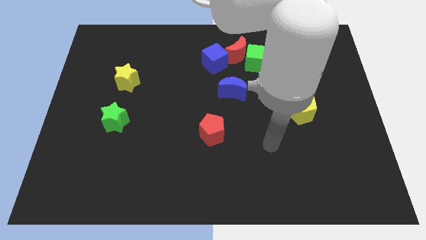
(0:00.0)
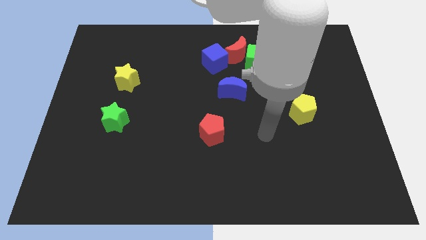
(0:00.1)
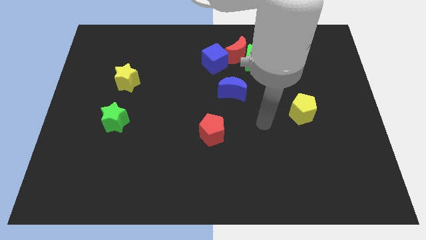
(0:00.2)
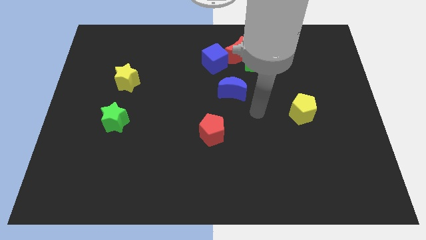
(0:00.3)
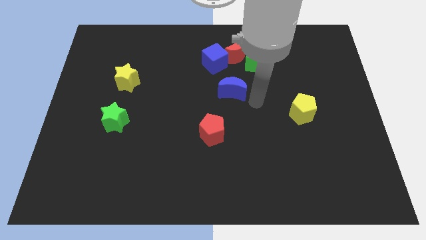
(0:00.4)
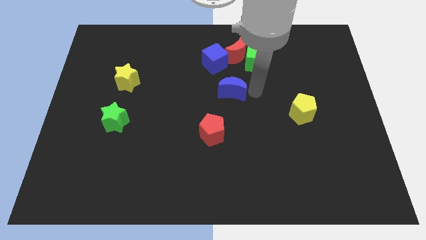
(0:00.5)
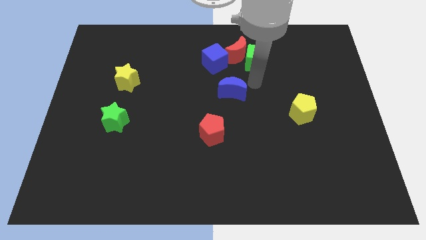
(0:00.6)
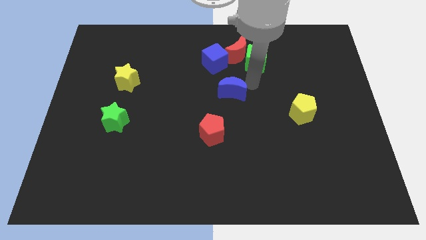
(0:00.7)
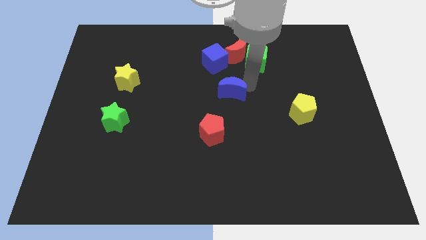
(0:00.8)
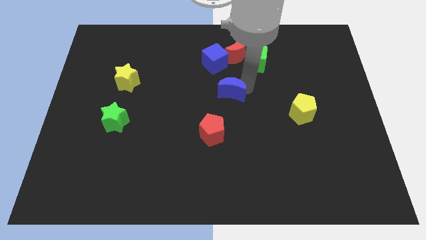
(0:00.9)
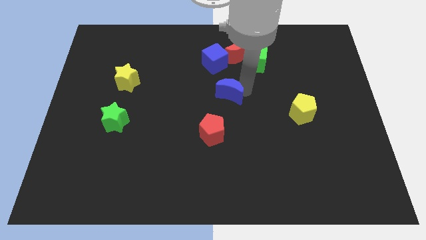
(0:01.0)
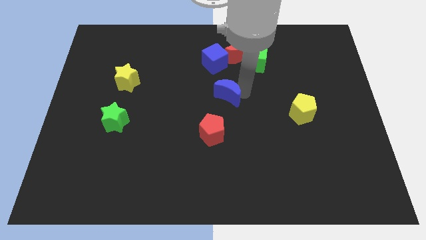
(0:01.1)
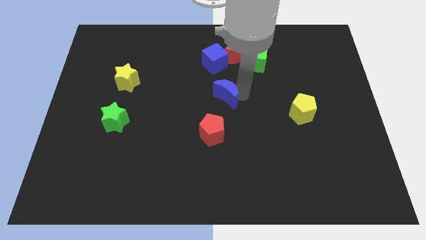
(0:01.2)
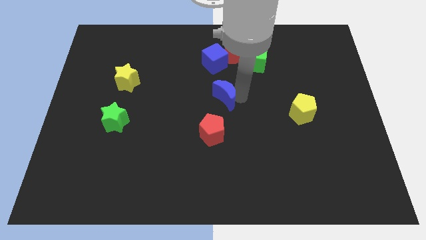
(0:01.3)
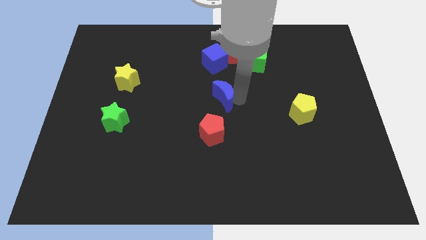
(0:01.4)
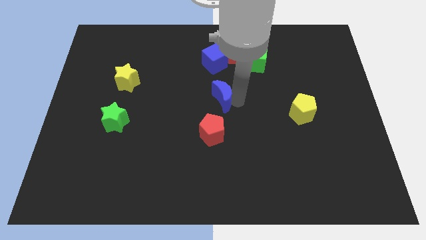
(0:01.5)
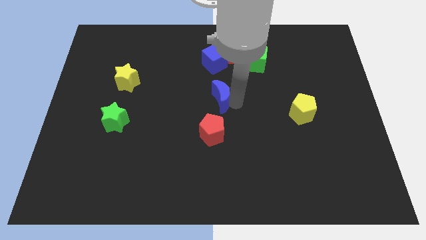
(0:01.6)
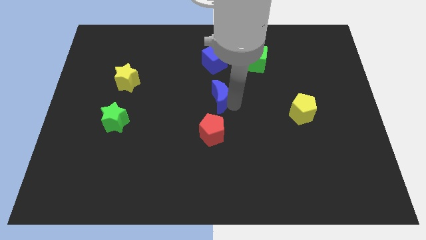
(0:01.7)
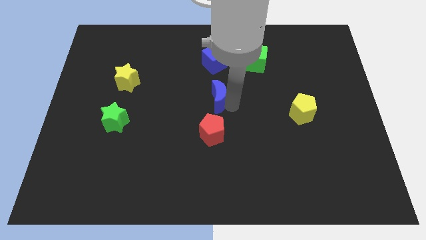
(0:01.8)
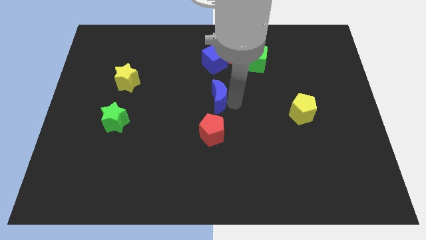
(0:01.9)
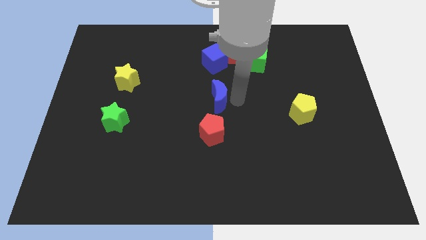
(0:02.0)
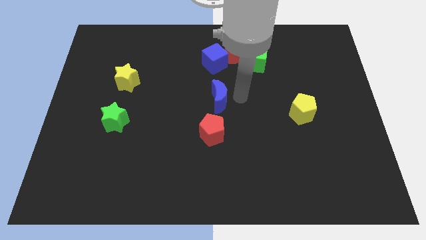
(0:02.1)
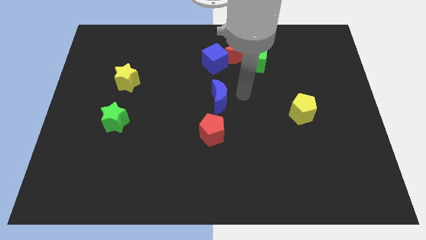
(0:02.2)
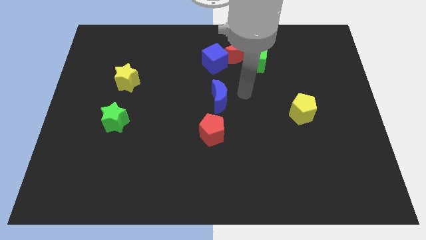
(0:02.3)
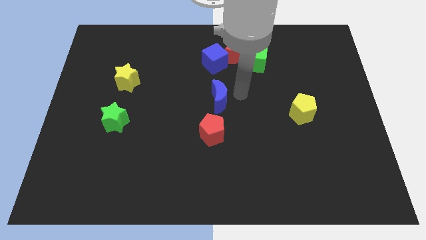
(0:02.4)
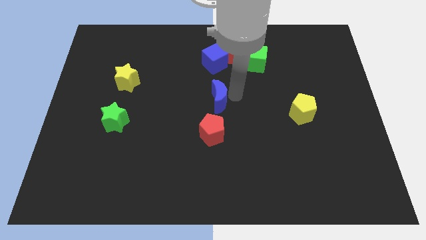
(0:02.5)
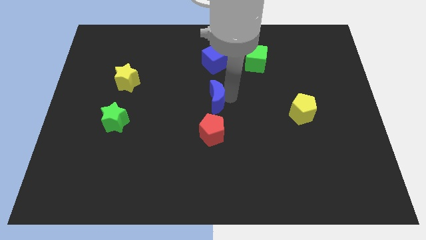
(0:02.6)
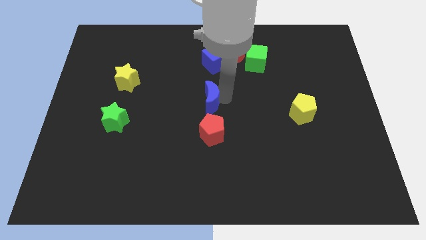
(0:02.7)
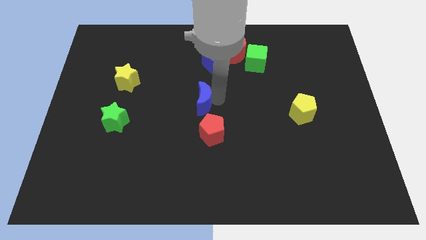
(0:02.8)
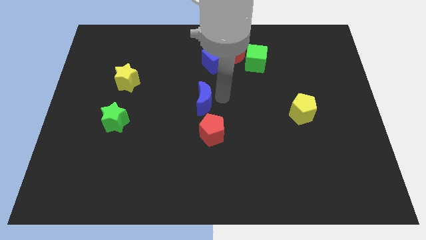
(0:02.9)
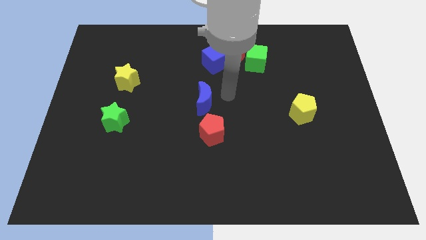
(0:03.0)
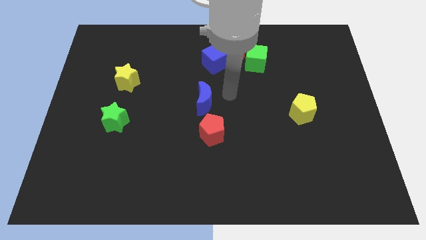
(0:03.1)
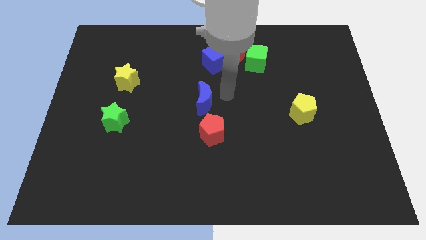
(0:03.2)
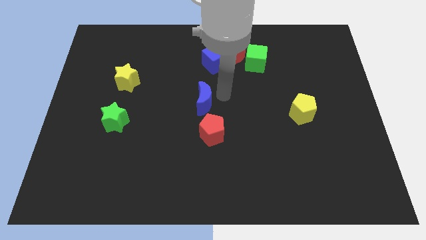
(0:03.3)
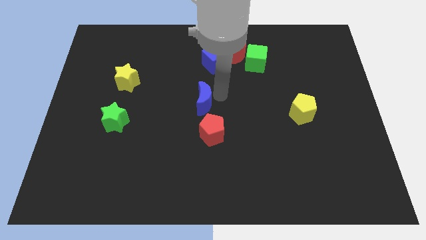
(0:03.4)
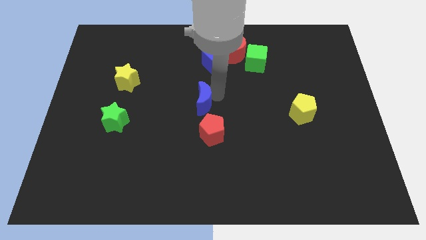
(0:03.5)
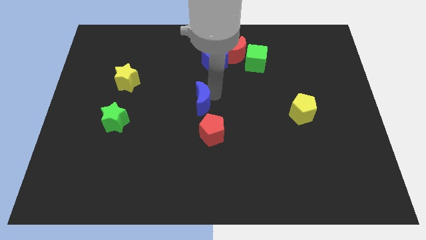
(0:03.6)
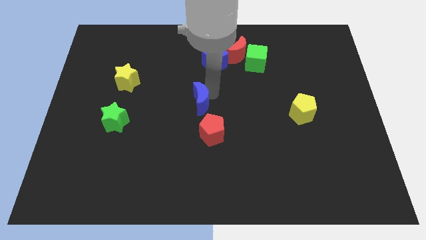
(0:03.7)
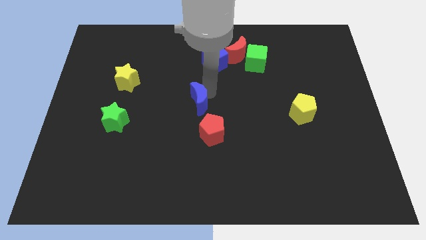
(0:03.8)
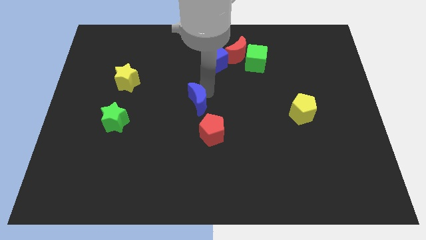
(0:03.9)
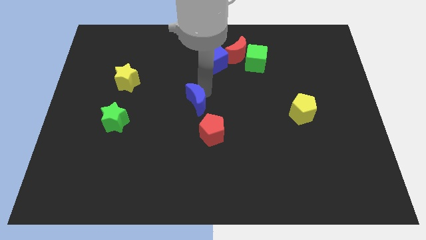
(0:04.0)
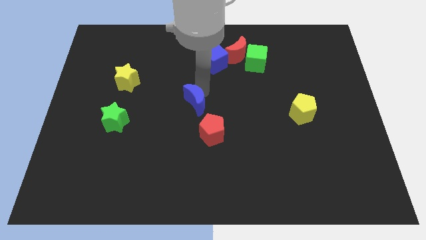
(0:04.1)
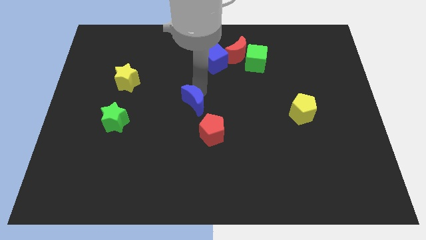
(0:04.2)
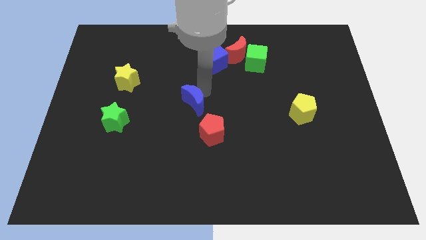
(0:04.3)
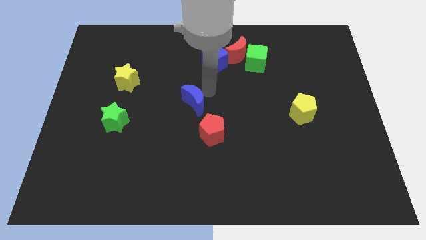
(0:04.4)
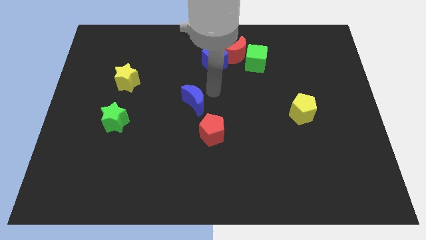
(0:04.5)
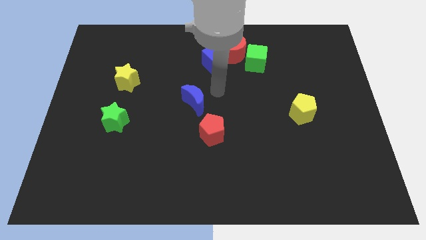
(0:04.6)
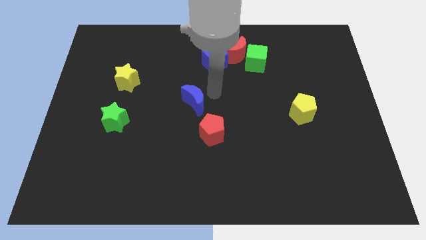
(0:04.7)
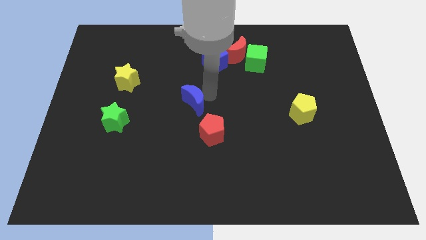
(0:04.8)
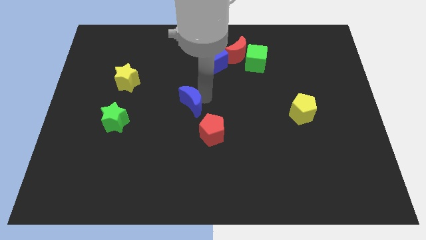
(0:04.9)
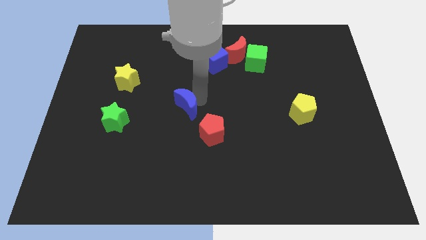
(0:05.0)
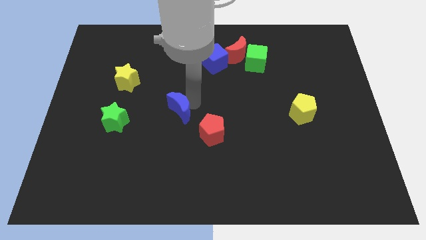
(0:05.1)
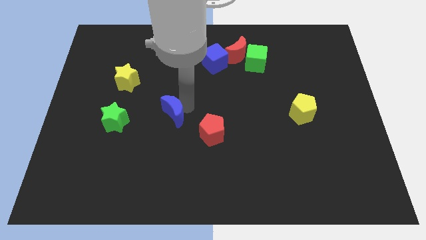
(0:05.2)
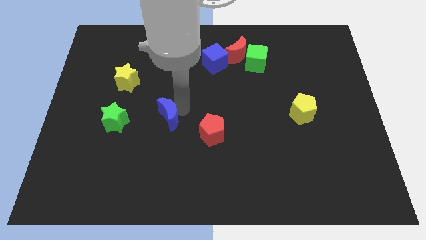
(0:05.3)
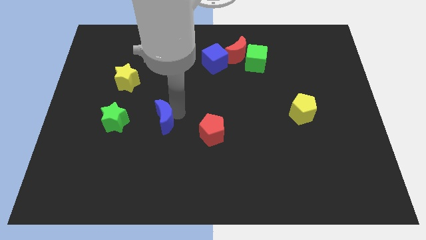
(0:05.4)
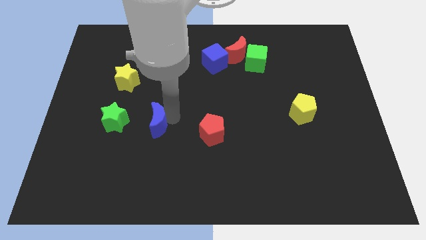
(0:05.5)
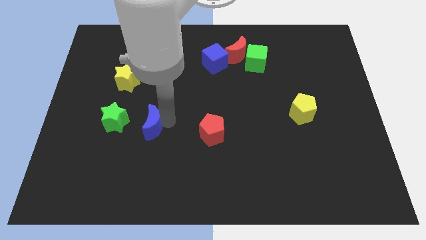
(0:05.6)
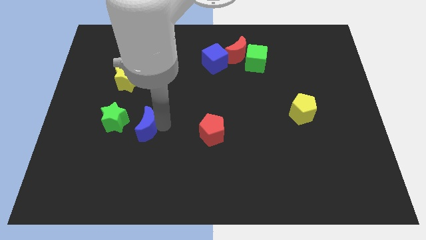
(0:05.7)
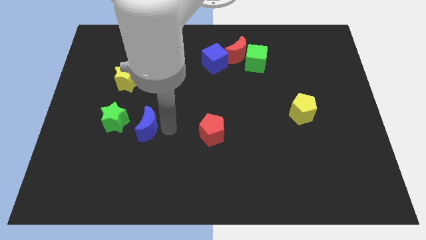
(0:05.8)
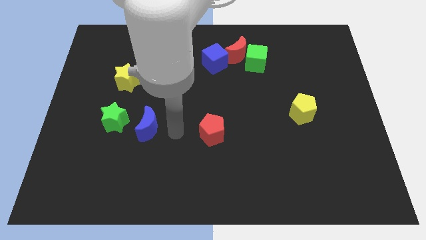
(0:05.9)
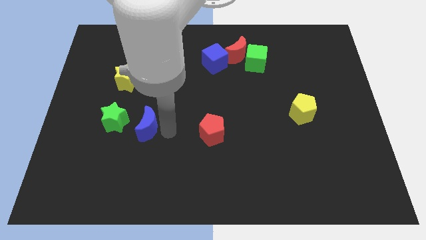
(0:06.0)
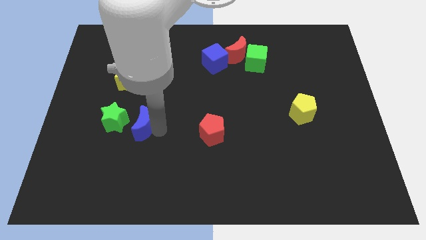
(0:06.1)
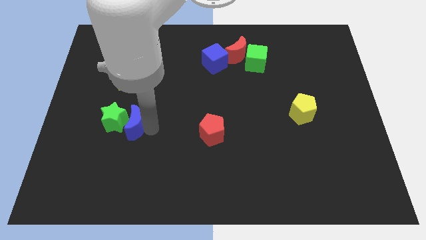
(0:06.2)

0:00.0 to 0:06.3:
slide the blue moon next to the green star
